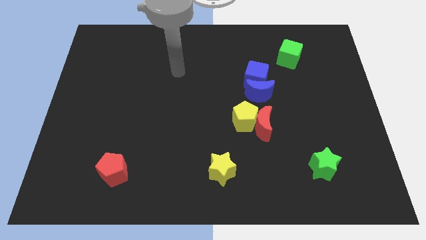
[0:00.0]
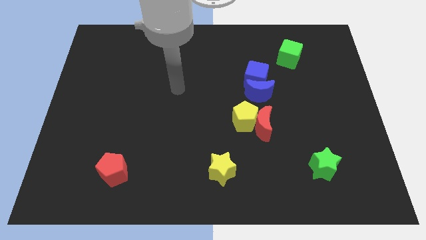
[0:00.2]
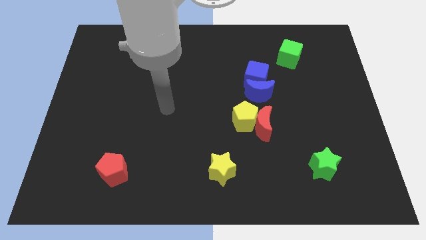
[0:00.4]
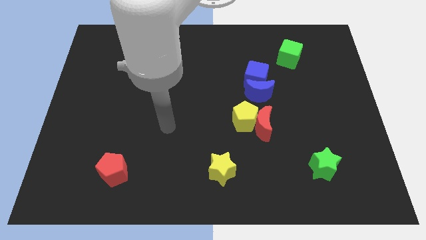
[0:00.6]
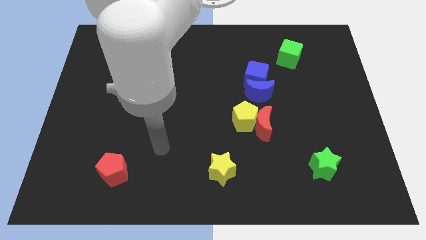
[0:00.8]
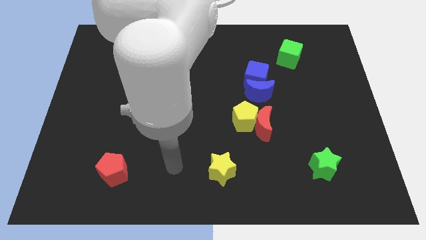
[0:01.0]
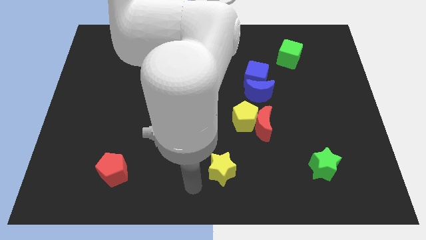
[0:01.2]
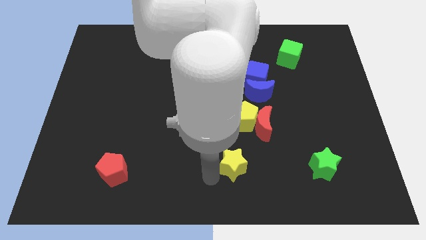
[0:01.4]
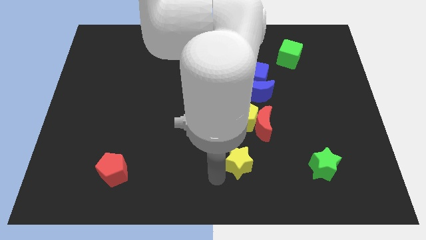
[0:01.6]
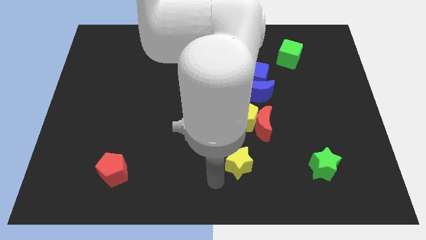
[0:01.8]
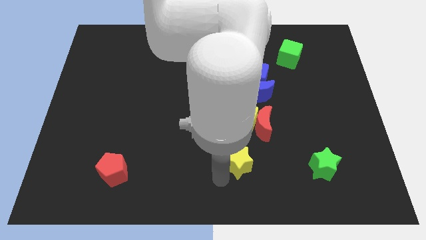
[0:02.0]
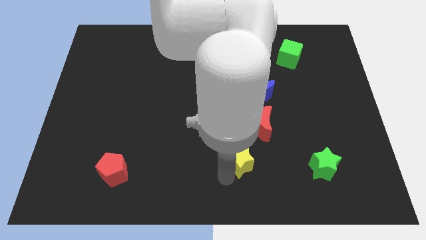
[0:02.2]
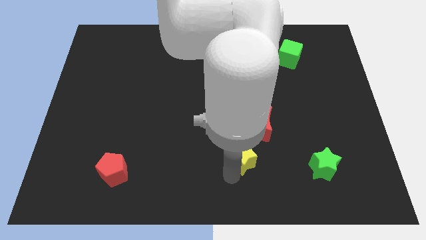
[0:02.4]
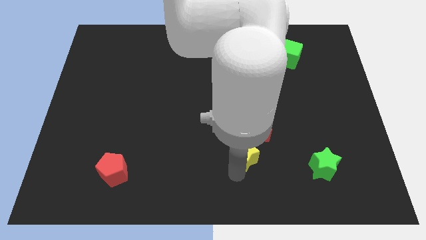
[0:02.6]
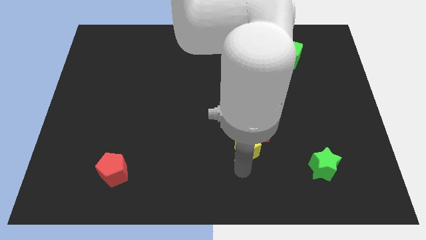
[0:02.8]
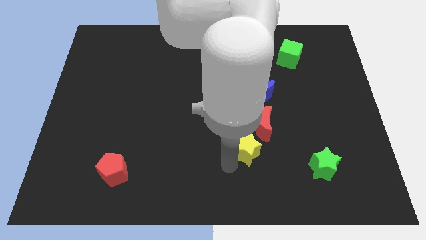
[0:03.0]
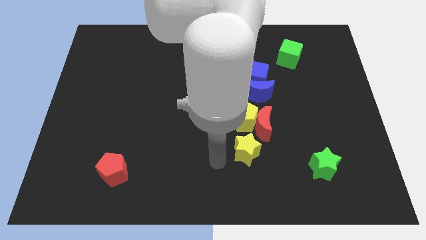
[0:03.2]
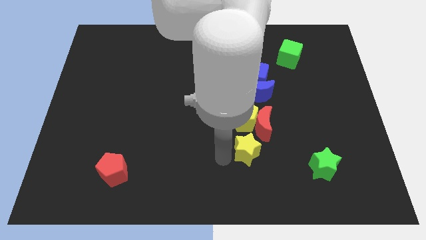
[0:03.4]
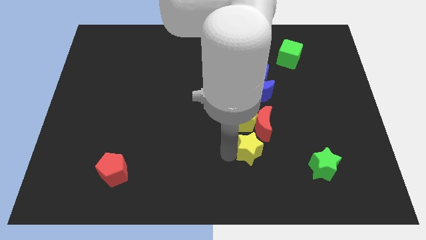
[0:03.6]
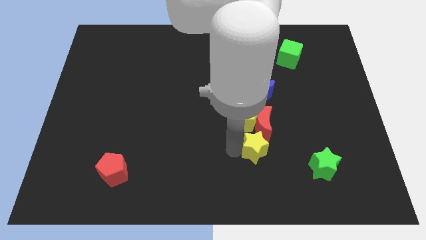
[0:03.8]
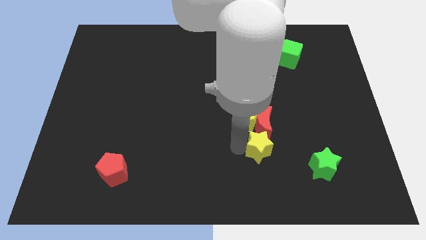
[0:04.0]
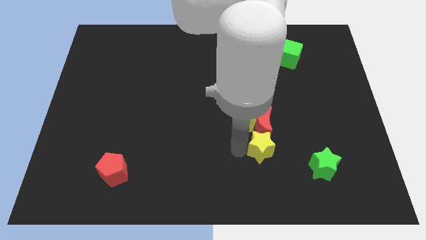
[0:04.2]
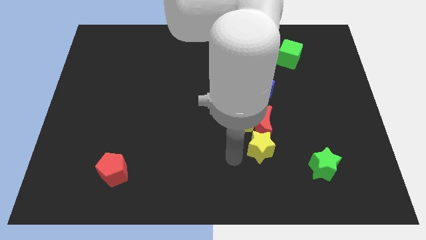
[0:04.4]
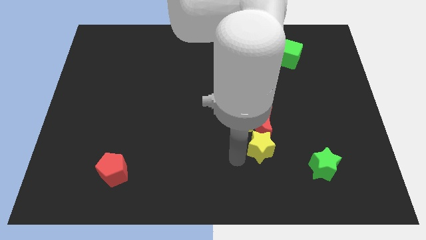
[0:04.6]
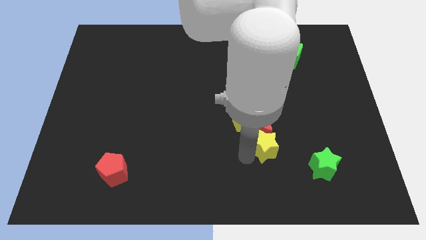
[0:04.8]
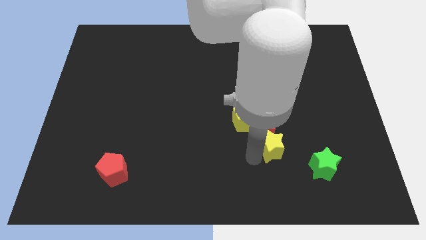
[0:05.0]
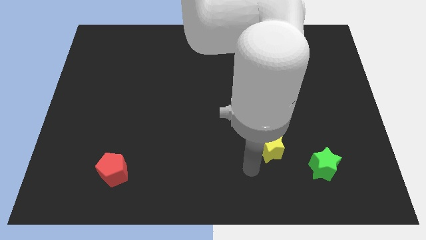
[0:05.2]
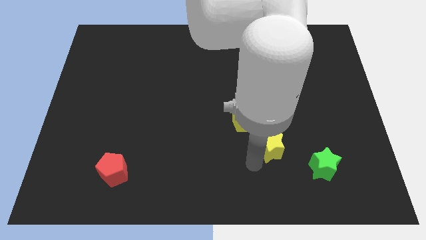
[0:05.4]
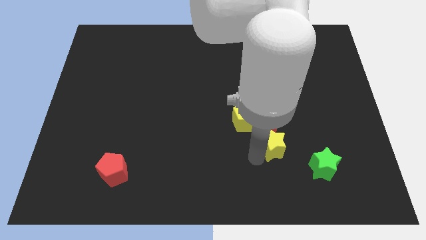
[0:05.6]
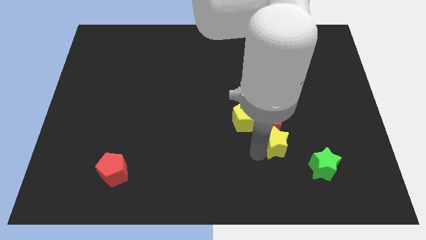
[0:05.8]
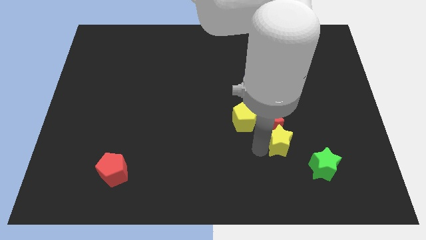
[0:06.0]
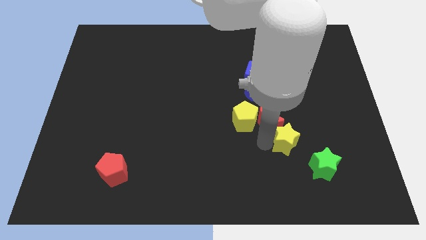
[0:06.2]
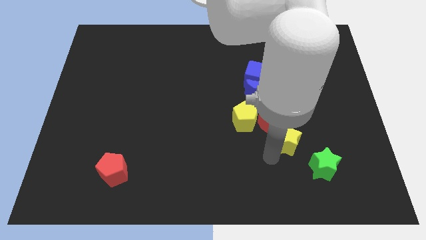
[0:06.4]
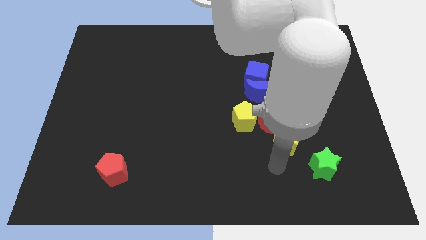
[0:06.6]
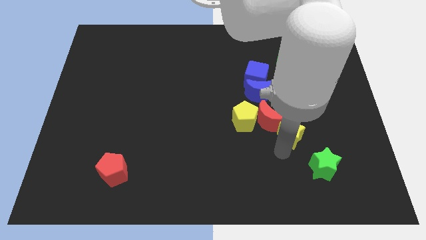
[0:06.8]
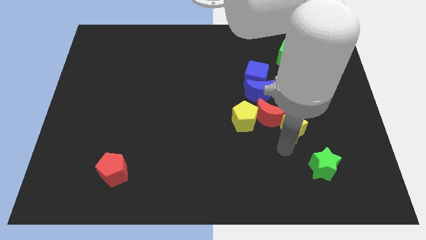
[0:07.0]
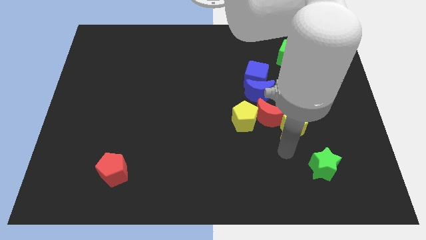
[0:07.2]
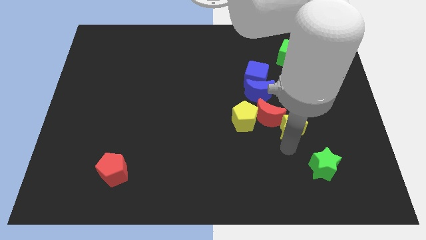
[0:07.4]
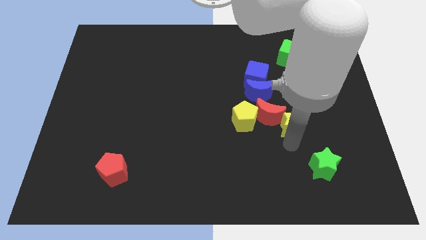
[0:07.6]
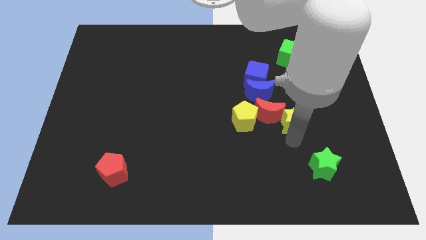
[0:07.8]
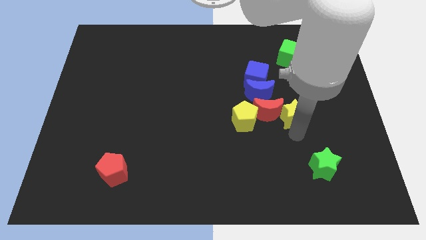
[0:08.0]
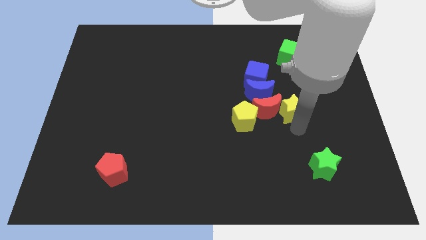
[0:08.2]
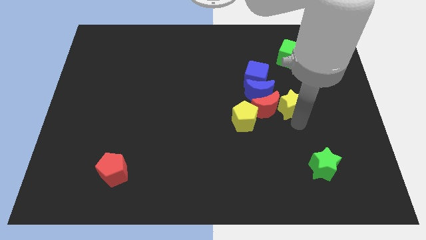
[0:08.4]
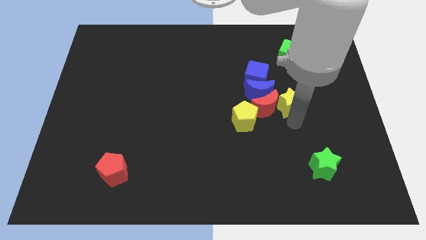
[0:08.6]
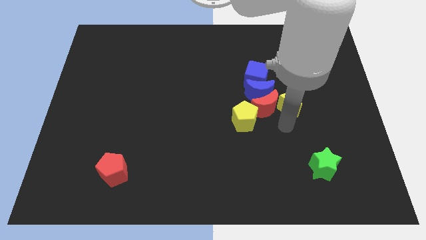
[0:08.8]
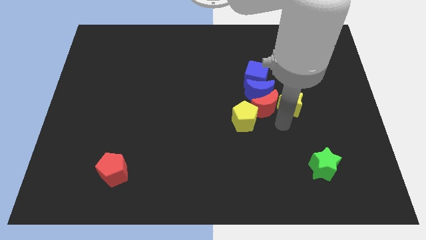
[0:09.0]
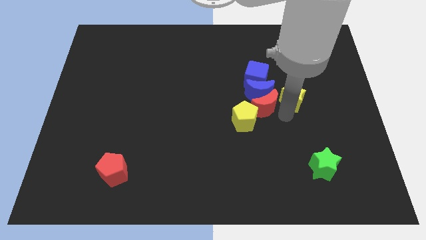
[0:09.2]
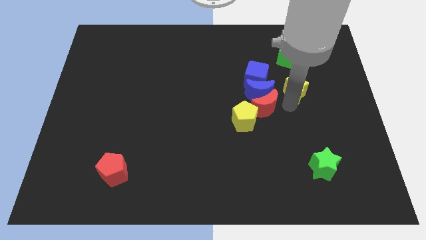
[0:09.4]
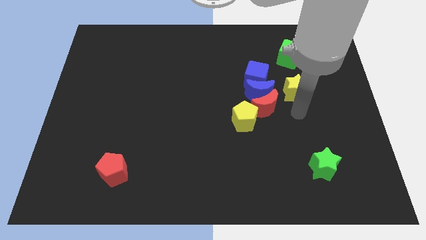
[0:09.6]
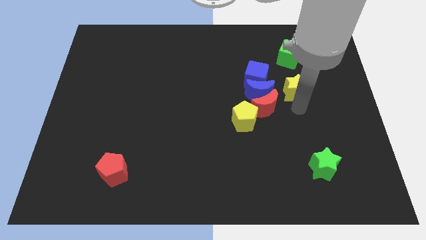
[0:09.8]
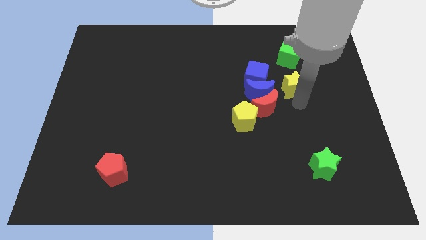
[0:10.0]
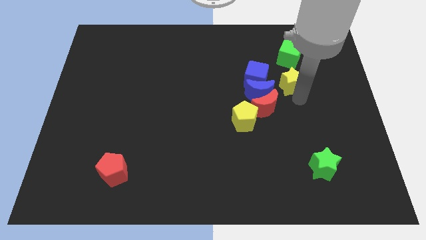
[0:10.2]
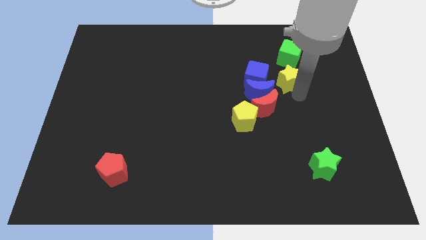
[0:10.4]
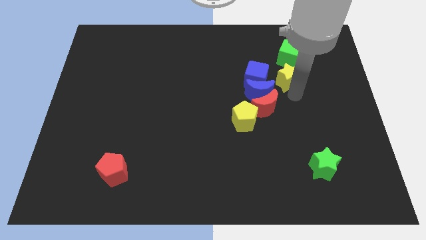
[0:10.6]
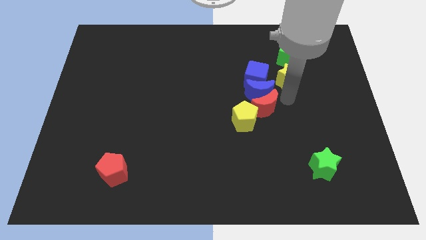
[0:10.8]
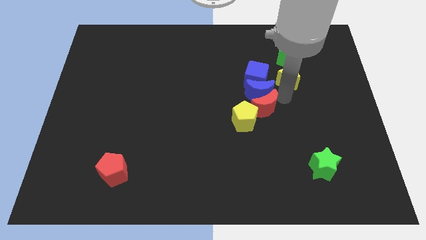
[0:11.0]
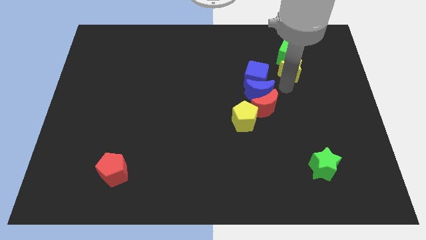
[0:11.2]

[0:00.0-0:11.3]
put the yellow star towards the green cube

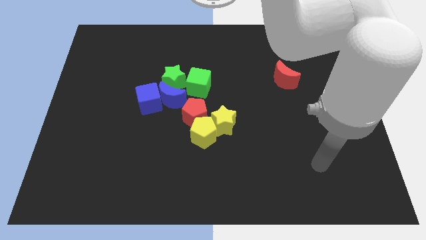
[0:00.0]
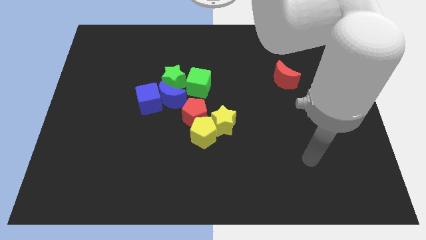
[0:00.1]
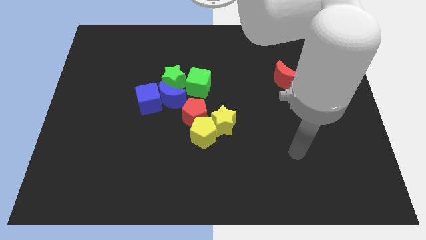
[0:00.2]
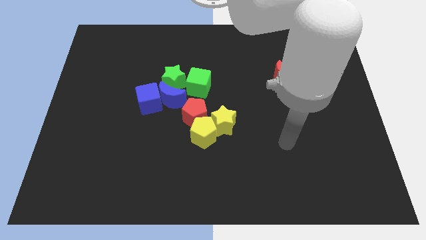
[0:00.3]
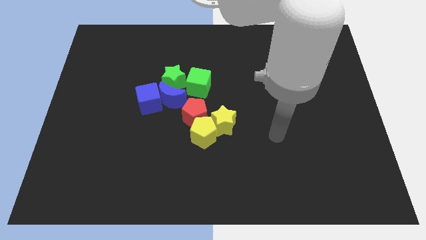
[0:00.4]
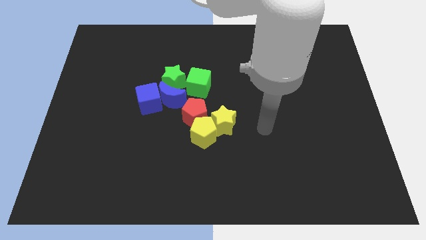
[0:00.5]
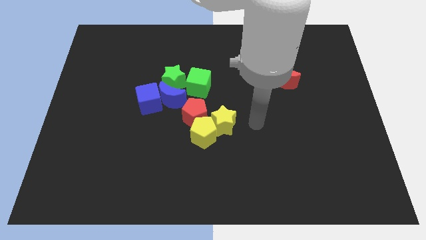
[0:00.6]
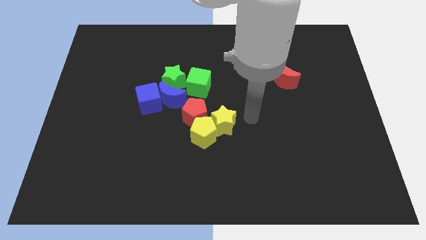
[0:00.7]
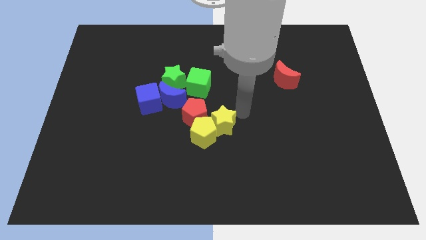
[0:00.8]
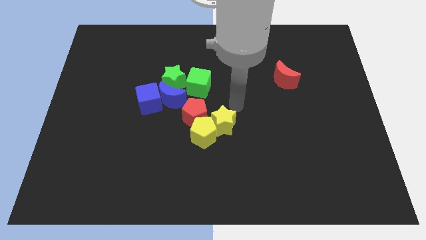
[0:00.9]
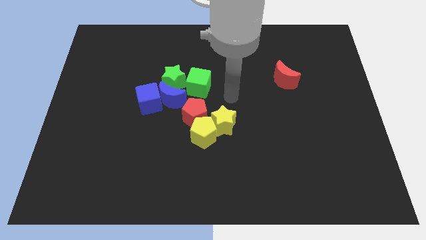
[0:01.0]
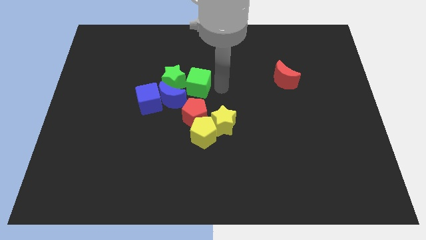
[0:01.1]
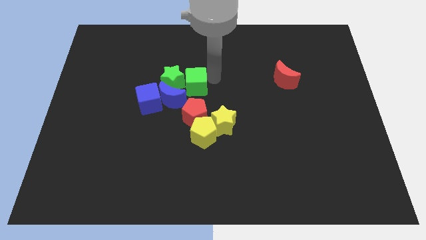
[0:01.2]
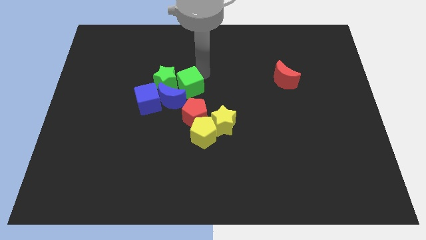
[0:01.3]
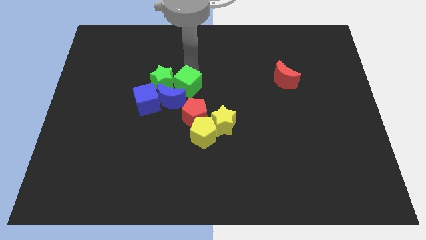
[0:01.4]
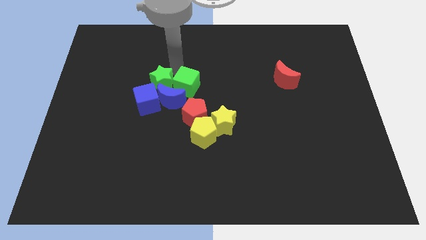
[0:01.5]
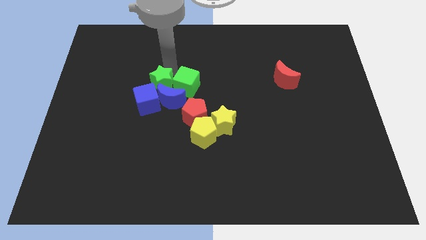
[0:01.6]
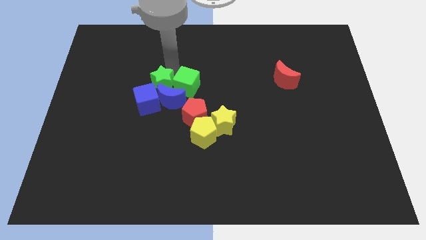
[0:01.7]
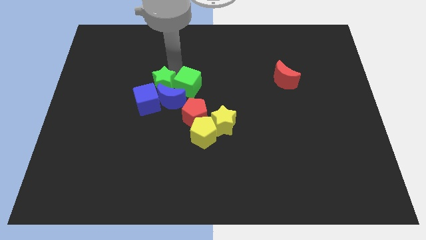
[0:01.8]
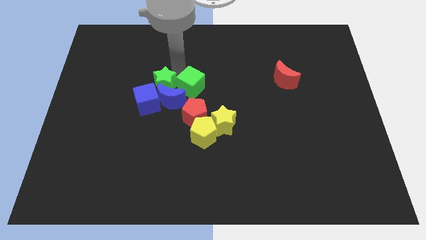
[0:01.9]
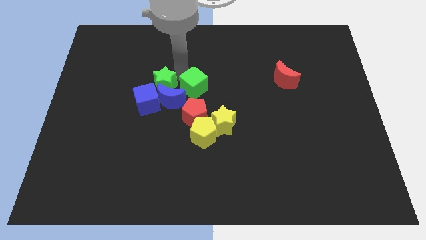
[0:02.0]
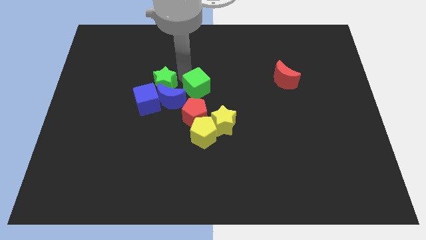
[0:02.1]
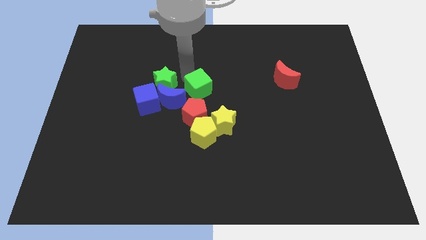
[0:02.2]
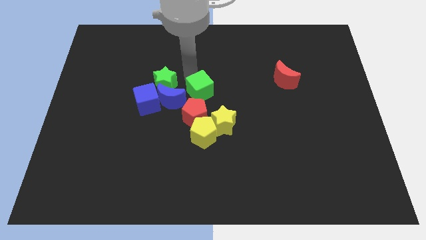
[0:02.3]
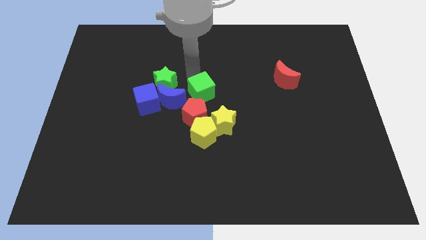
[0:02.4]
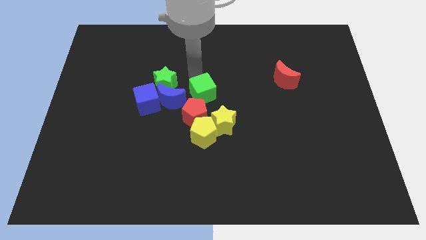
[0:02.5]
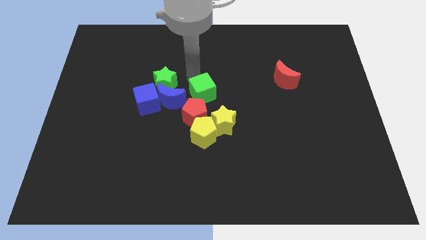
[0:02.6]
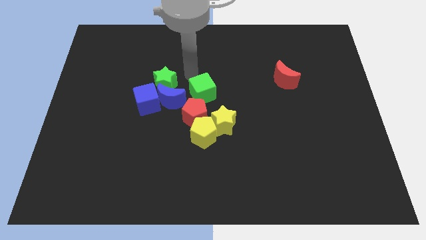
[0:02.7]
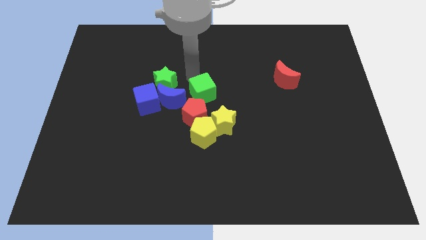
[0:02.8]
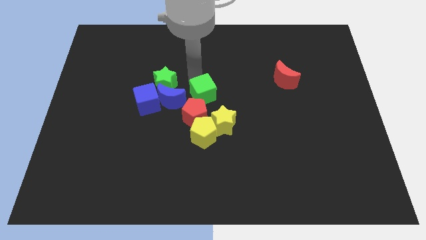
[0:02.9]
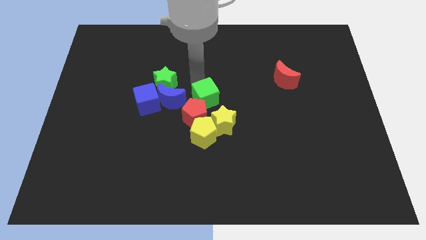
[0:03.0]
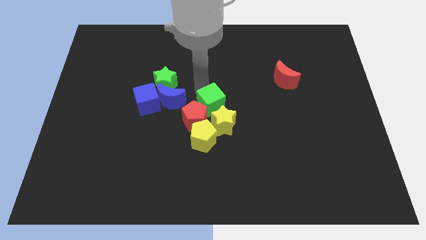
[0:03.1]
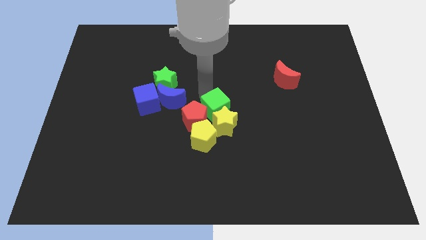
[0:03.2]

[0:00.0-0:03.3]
slide the green cube next to the yellow star
